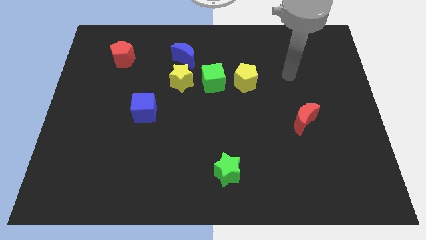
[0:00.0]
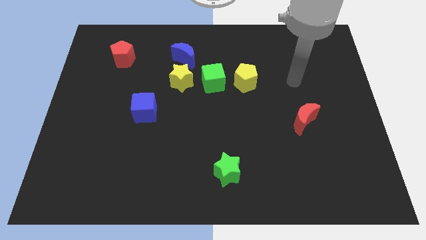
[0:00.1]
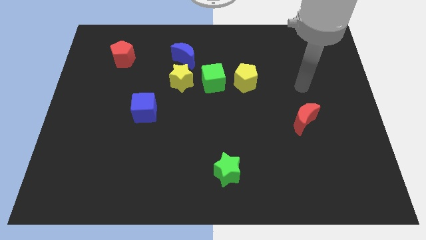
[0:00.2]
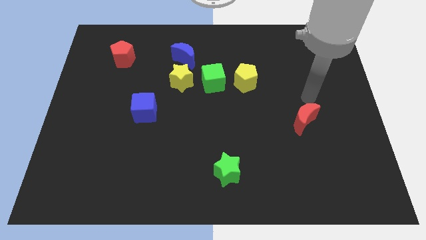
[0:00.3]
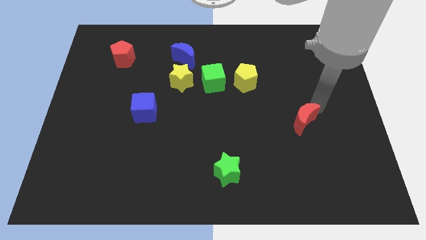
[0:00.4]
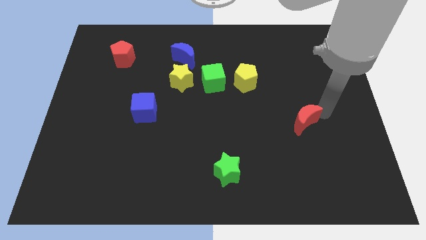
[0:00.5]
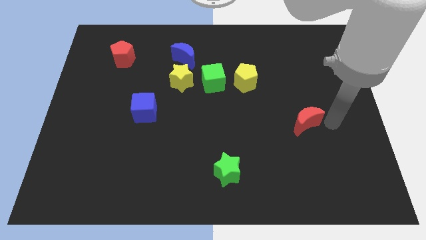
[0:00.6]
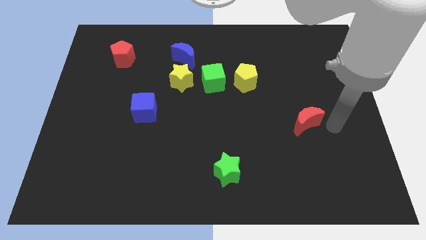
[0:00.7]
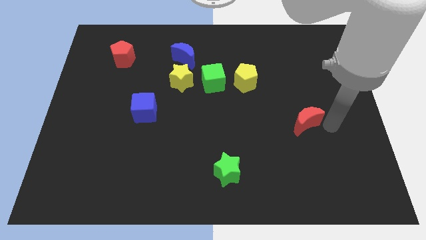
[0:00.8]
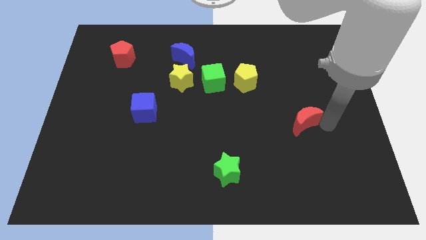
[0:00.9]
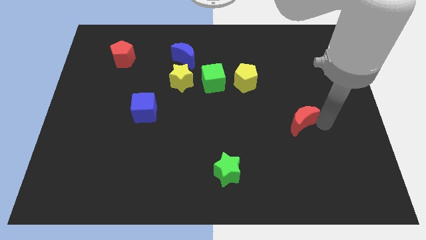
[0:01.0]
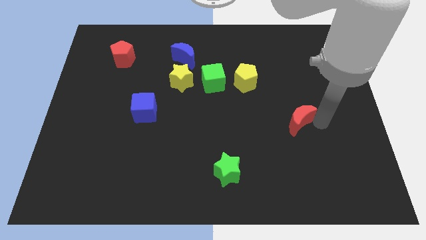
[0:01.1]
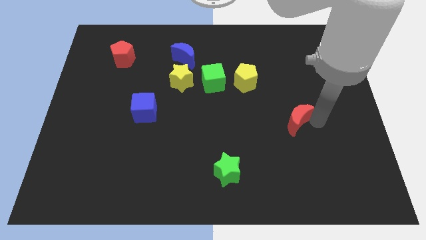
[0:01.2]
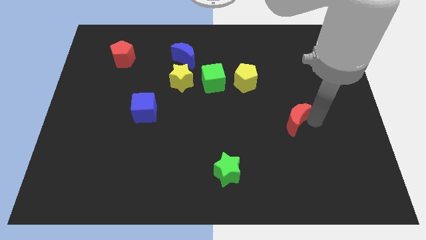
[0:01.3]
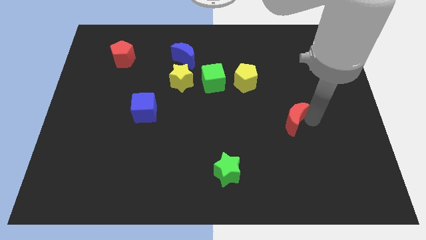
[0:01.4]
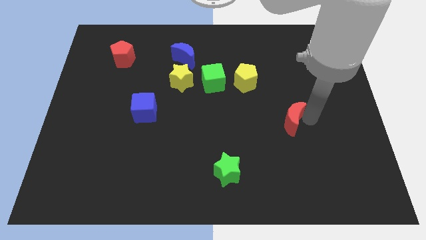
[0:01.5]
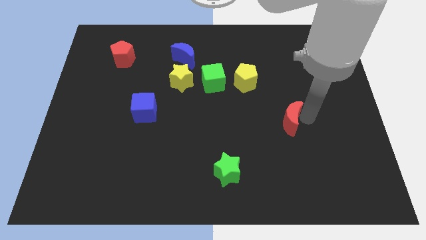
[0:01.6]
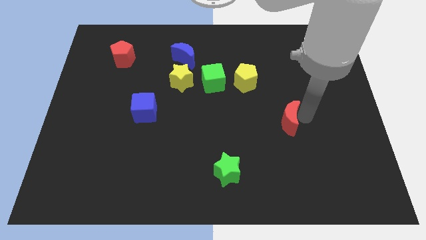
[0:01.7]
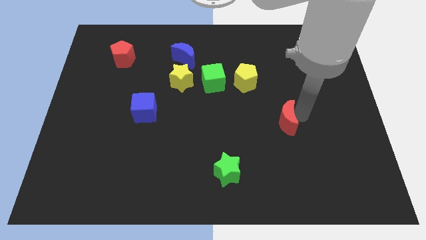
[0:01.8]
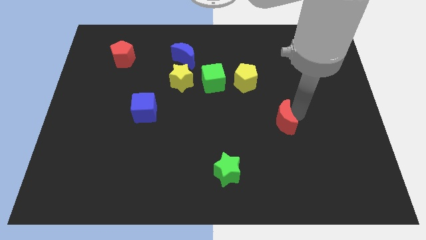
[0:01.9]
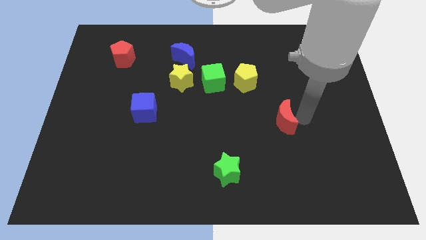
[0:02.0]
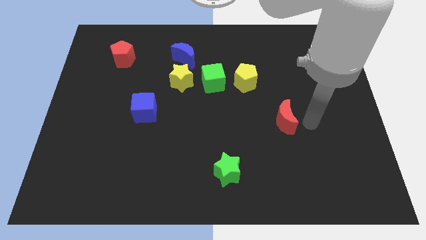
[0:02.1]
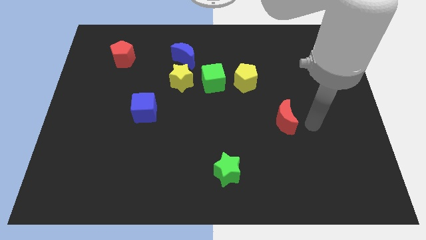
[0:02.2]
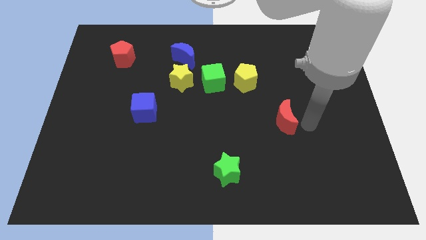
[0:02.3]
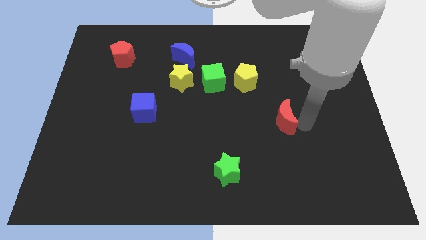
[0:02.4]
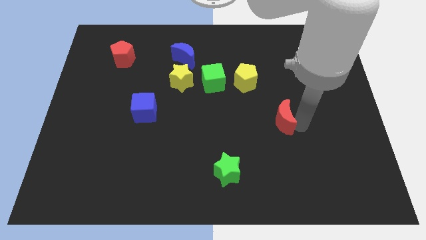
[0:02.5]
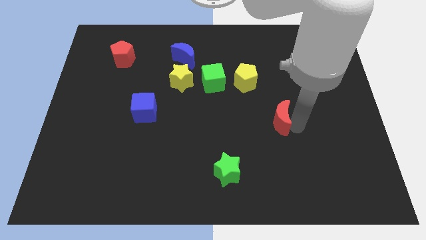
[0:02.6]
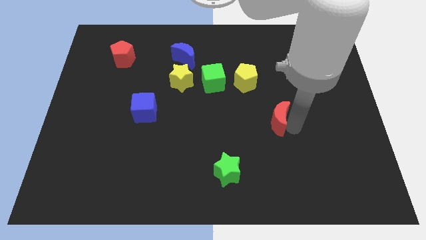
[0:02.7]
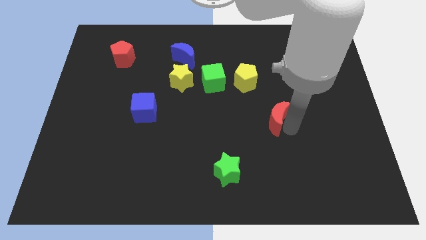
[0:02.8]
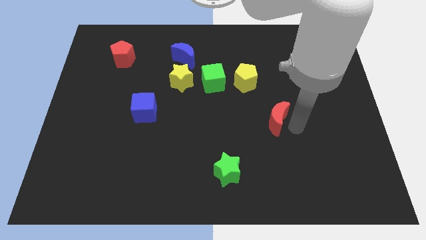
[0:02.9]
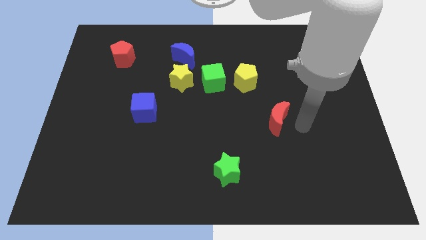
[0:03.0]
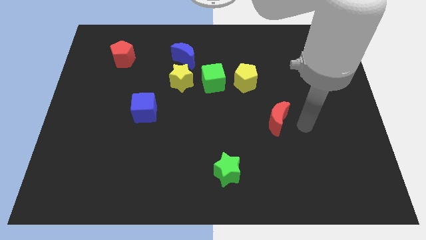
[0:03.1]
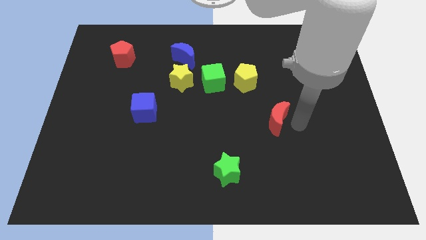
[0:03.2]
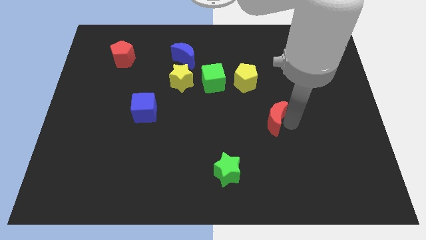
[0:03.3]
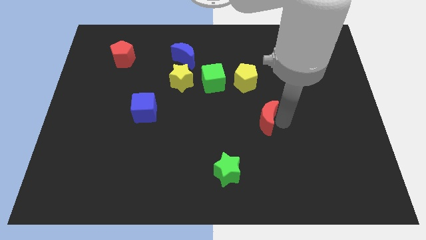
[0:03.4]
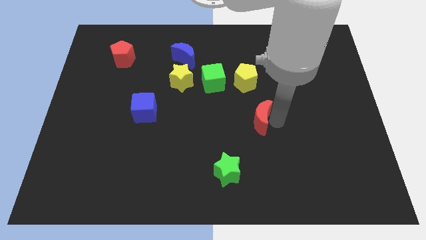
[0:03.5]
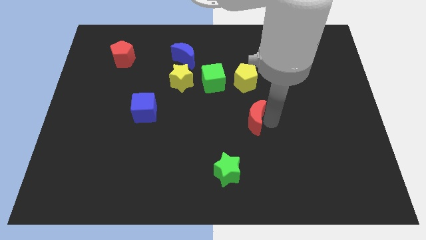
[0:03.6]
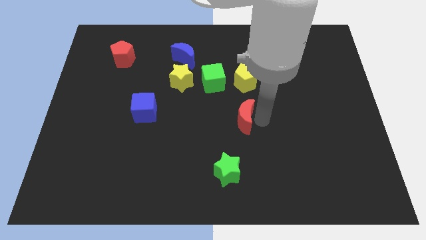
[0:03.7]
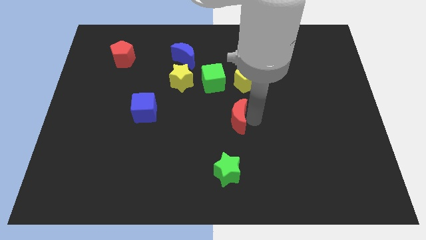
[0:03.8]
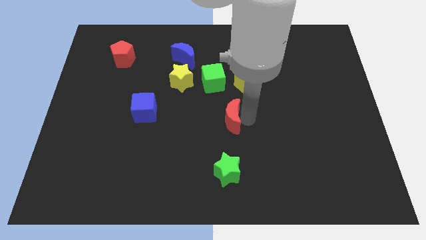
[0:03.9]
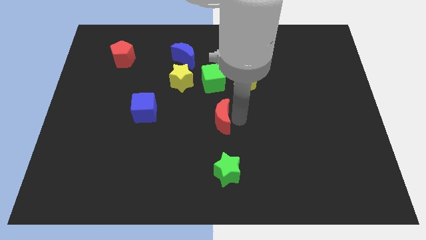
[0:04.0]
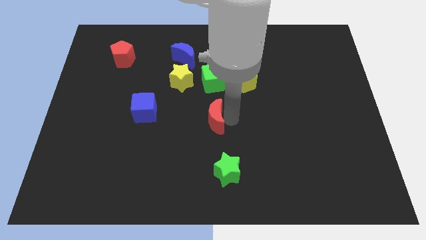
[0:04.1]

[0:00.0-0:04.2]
move the red moon left

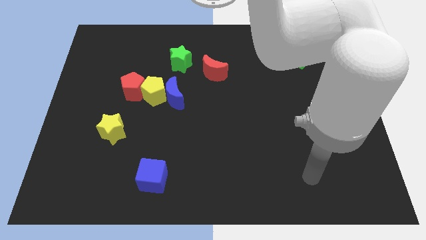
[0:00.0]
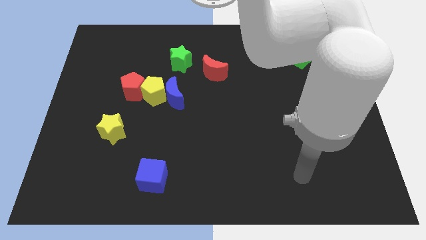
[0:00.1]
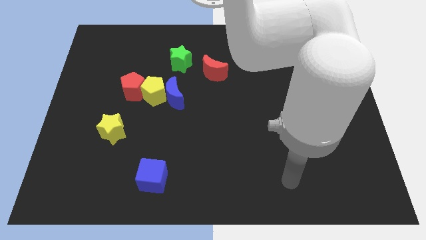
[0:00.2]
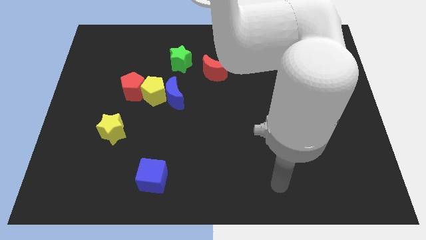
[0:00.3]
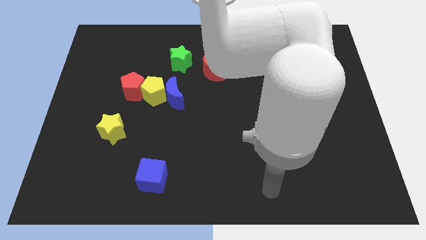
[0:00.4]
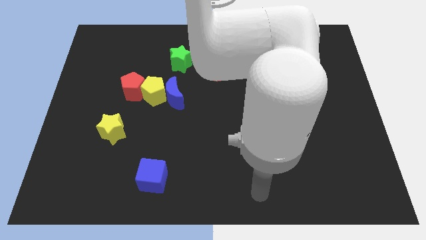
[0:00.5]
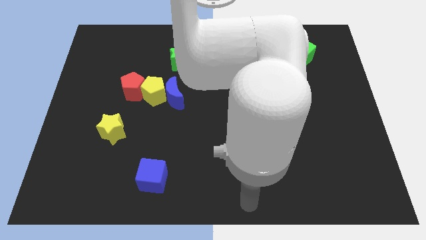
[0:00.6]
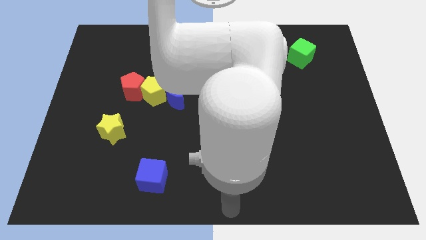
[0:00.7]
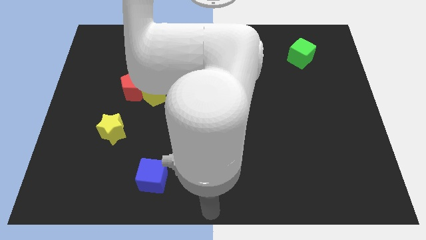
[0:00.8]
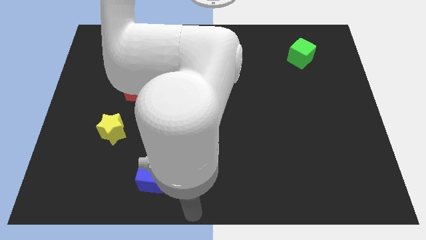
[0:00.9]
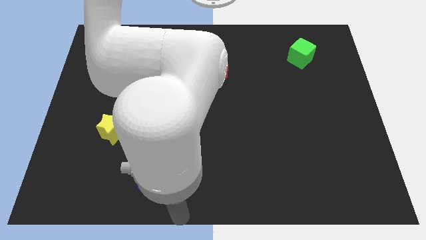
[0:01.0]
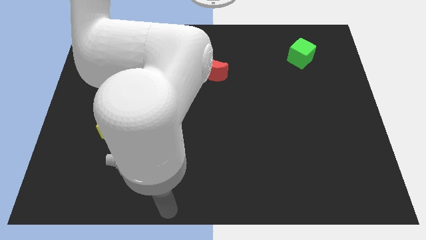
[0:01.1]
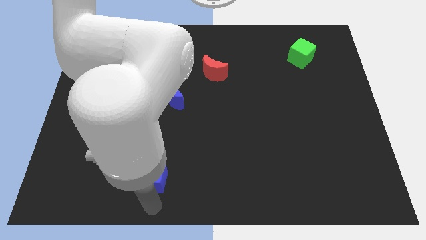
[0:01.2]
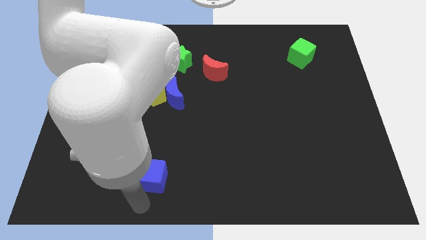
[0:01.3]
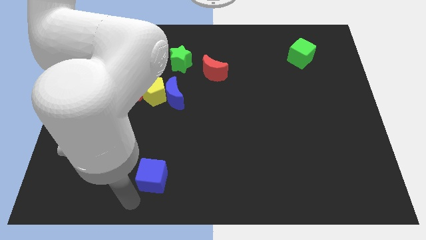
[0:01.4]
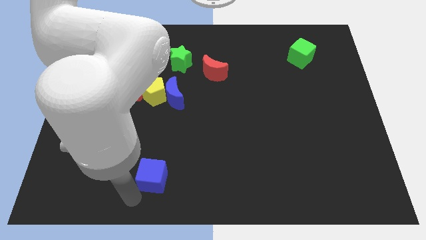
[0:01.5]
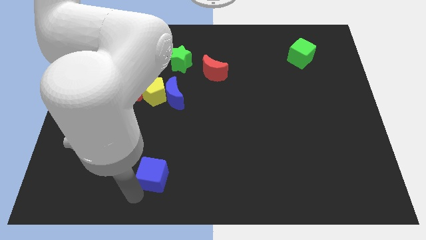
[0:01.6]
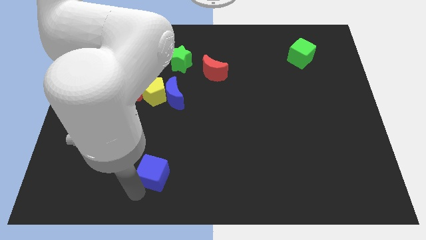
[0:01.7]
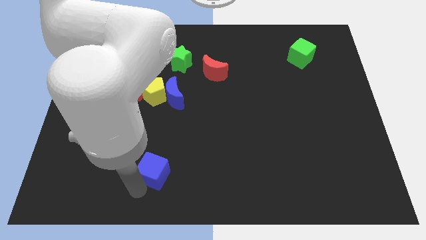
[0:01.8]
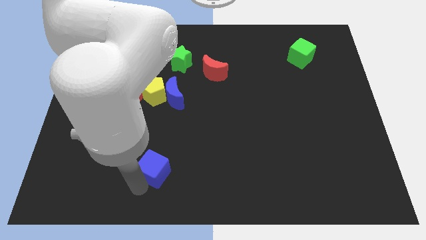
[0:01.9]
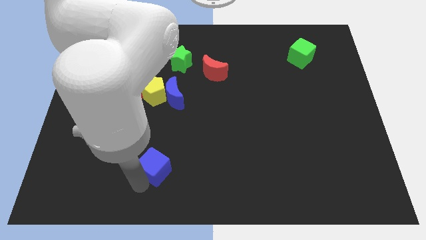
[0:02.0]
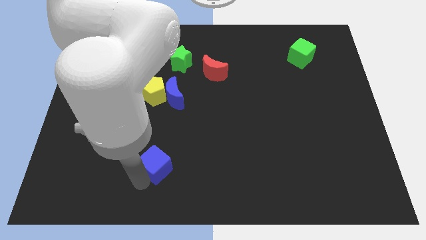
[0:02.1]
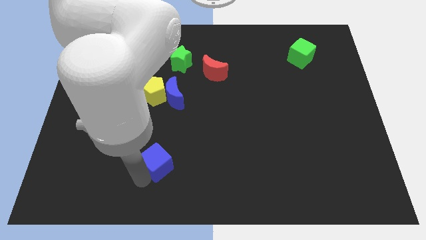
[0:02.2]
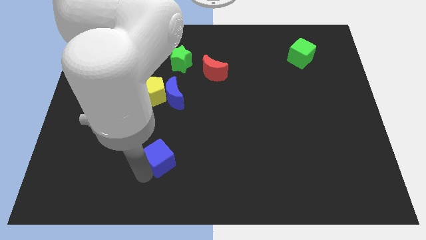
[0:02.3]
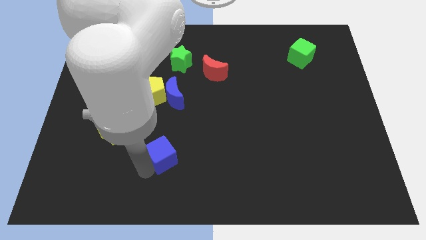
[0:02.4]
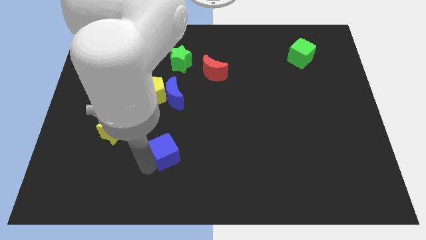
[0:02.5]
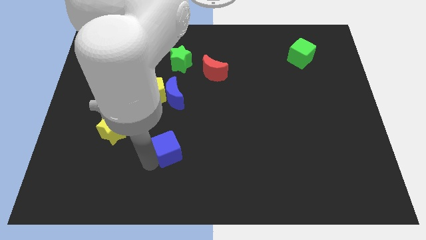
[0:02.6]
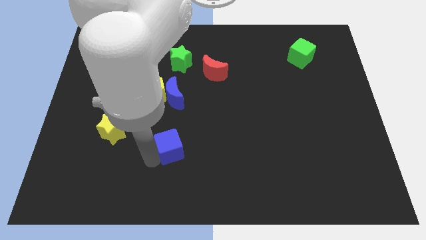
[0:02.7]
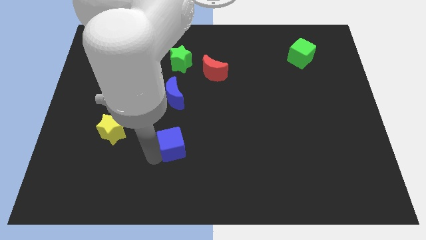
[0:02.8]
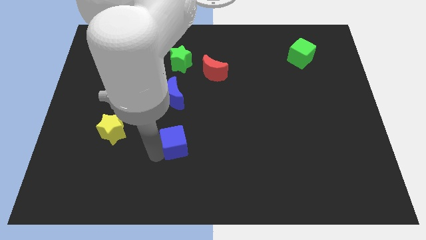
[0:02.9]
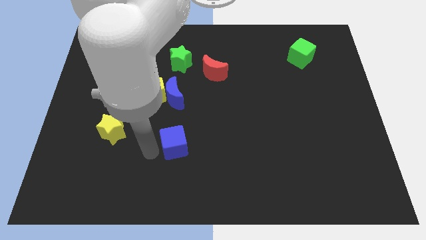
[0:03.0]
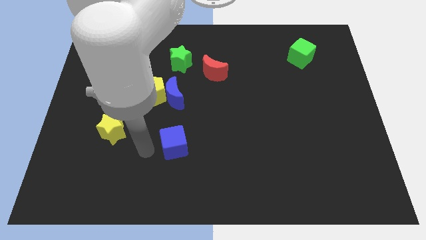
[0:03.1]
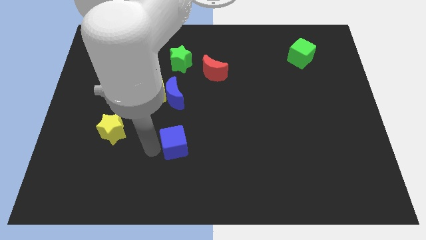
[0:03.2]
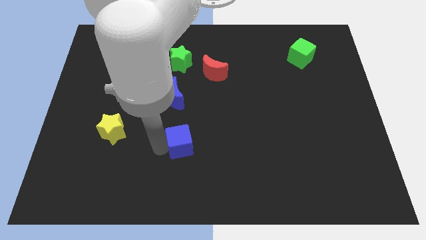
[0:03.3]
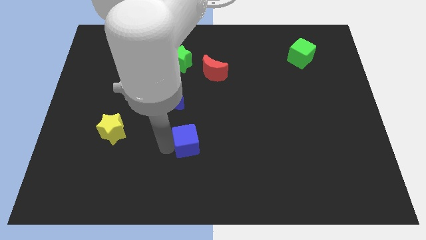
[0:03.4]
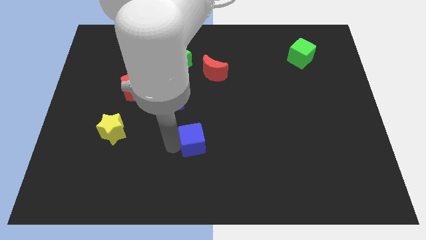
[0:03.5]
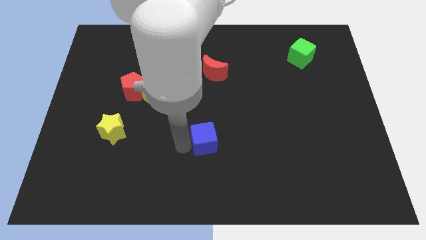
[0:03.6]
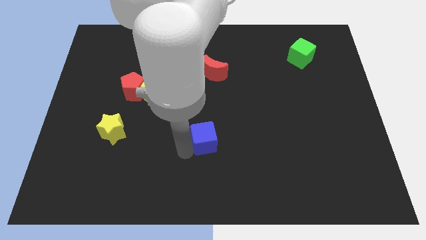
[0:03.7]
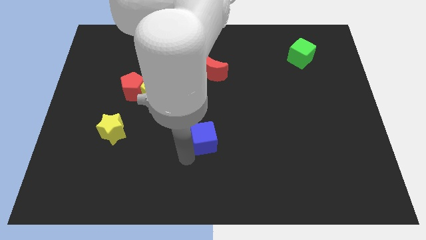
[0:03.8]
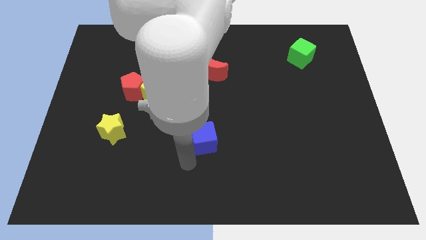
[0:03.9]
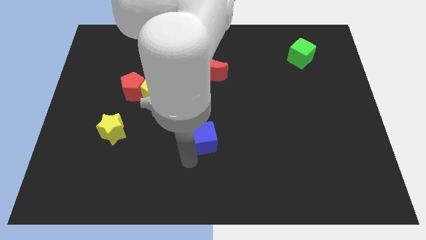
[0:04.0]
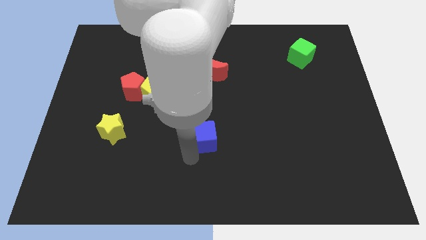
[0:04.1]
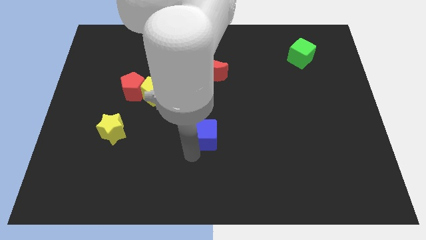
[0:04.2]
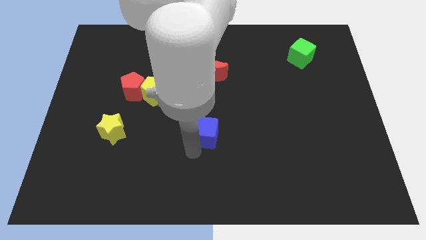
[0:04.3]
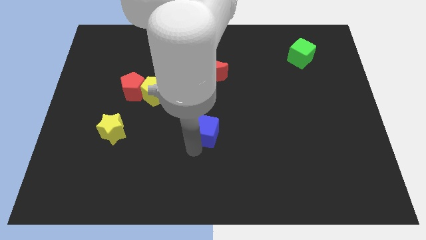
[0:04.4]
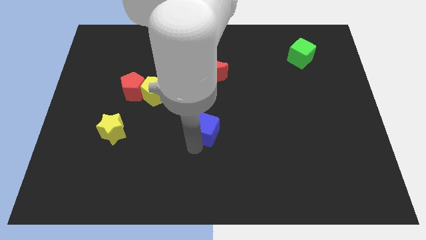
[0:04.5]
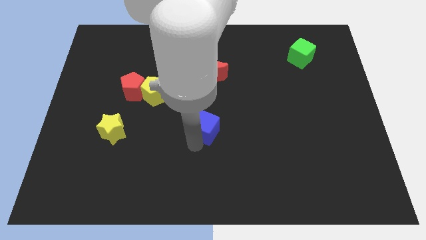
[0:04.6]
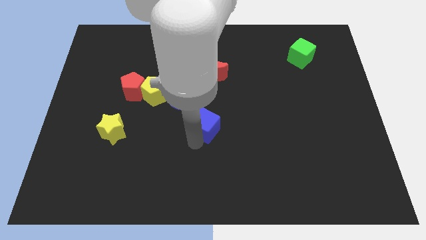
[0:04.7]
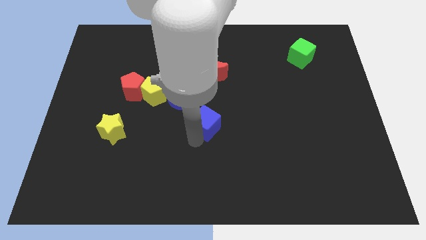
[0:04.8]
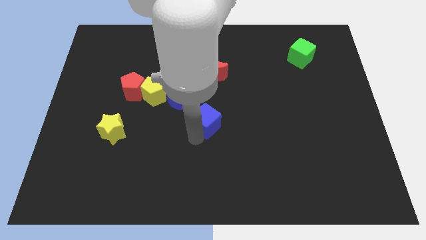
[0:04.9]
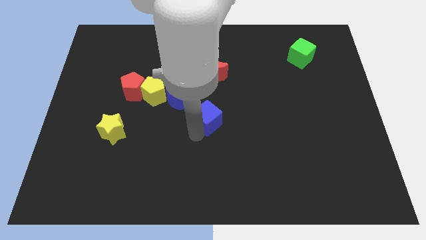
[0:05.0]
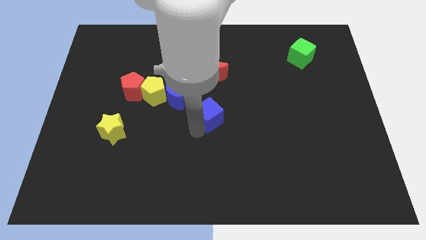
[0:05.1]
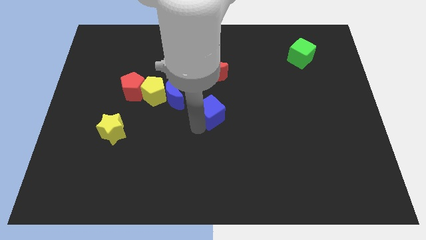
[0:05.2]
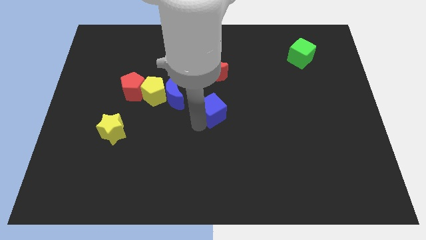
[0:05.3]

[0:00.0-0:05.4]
slide the blue cube upwards and to the right
